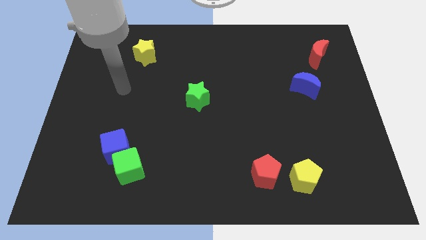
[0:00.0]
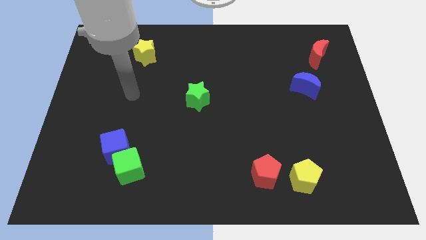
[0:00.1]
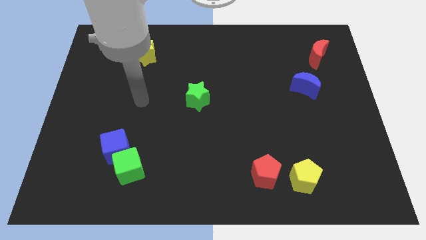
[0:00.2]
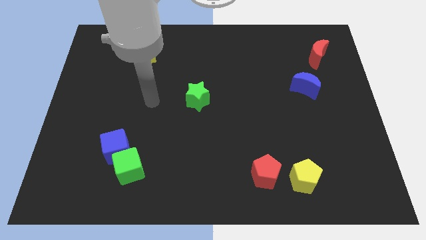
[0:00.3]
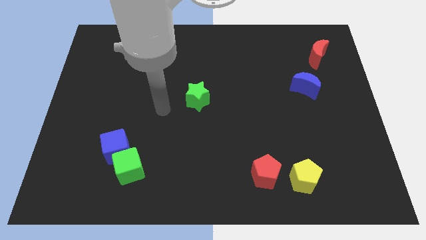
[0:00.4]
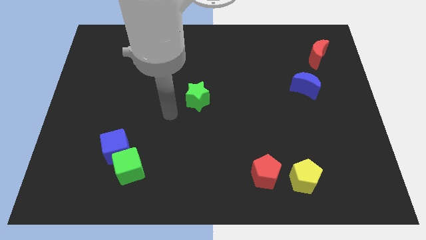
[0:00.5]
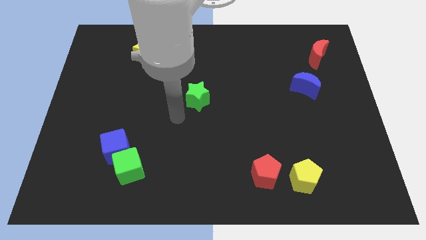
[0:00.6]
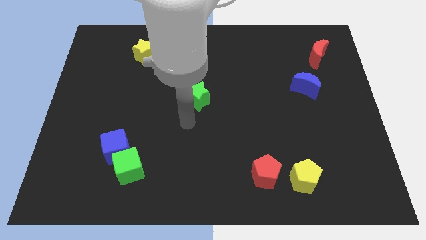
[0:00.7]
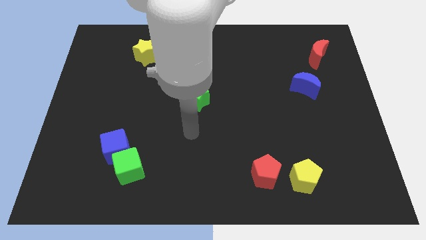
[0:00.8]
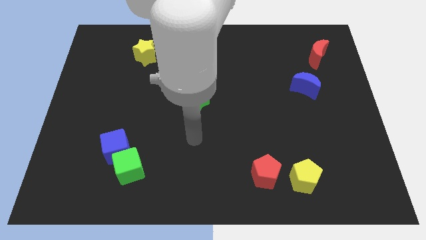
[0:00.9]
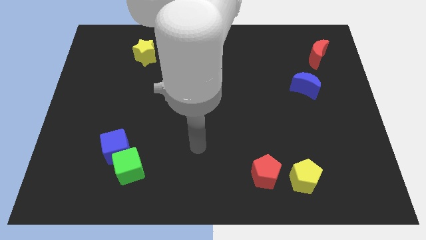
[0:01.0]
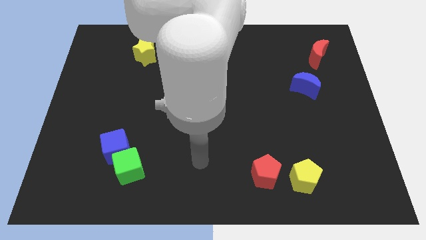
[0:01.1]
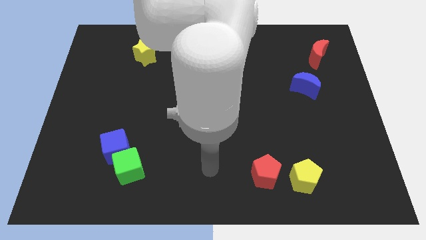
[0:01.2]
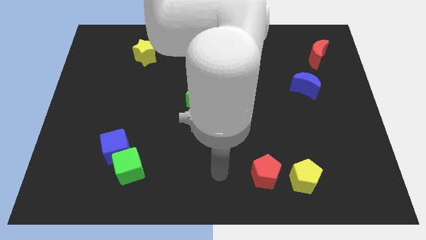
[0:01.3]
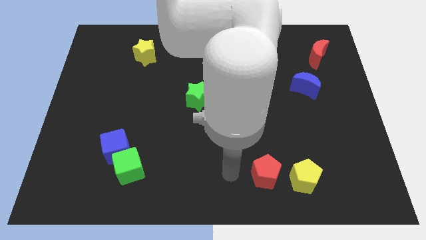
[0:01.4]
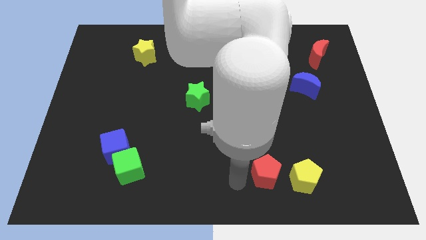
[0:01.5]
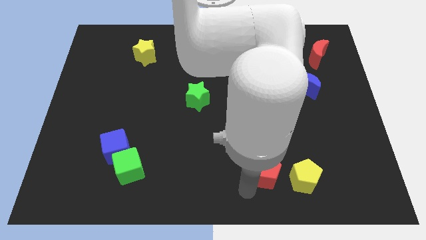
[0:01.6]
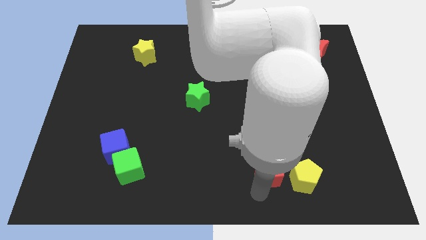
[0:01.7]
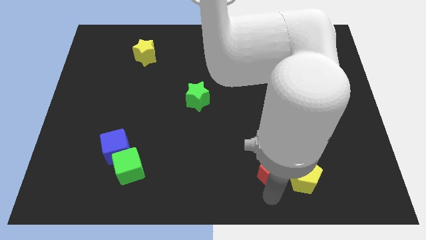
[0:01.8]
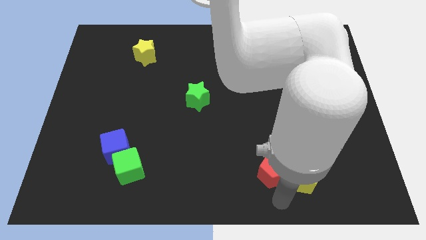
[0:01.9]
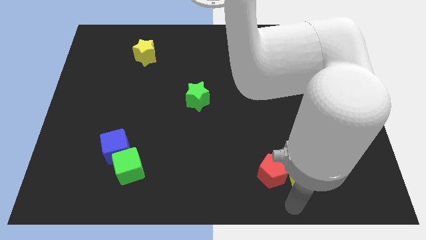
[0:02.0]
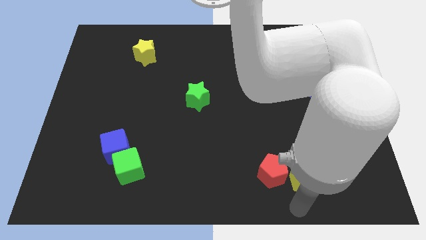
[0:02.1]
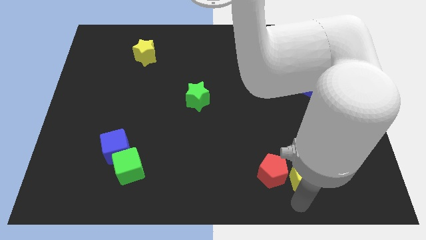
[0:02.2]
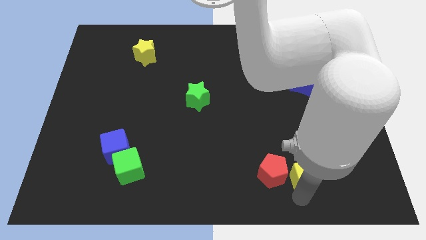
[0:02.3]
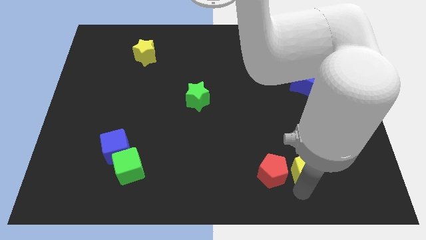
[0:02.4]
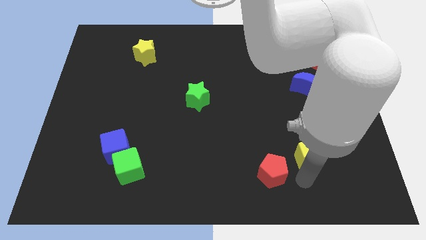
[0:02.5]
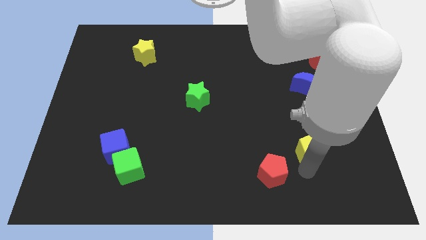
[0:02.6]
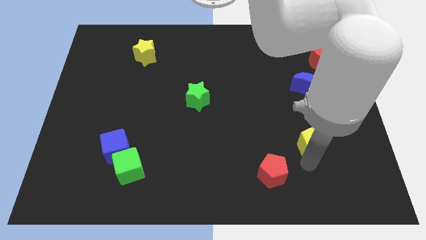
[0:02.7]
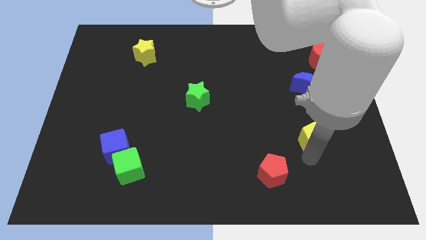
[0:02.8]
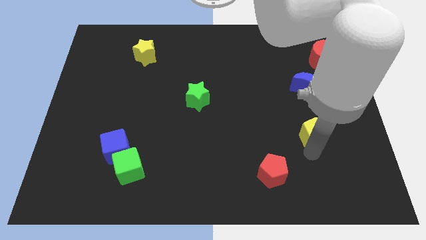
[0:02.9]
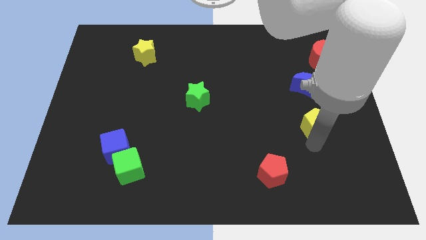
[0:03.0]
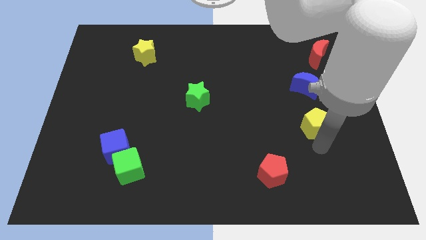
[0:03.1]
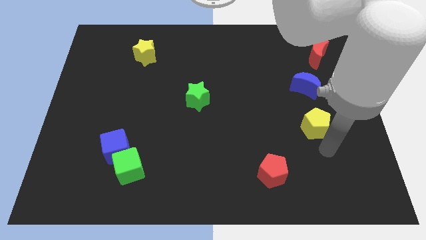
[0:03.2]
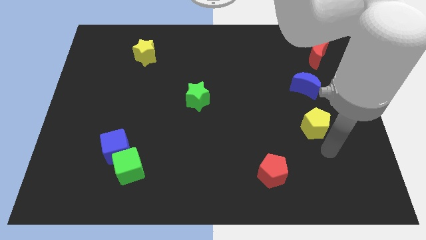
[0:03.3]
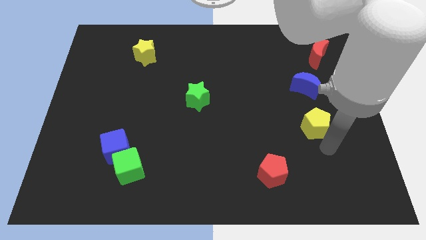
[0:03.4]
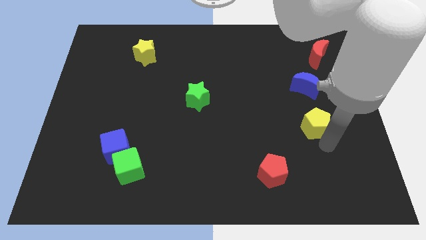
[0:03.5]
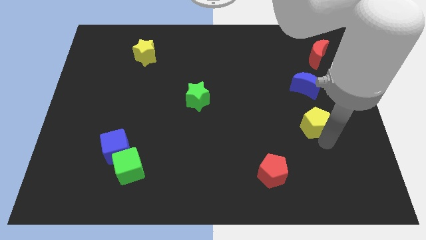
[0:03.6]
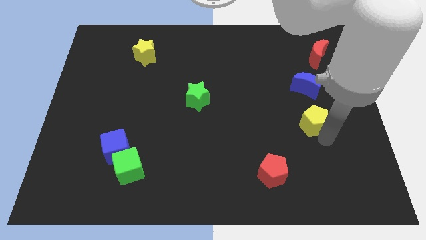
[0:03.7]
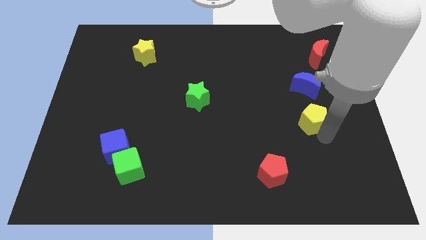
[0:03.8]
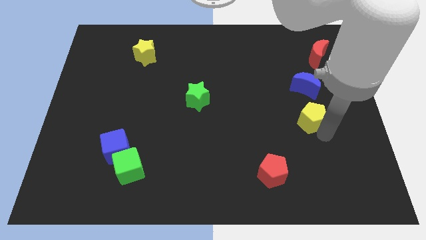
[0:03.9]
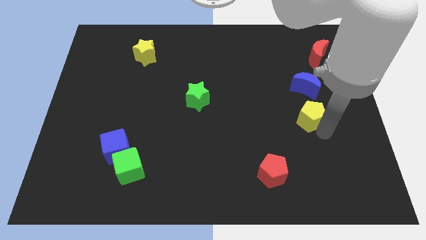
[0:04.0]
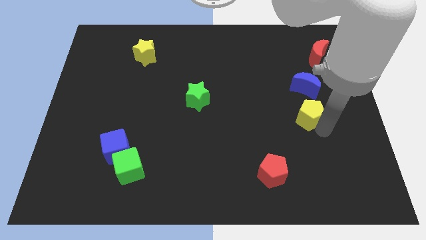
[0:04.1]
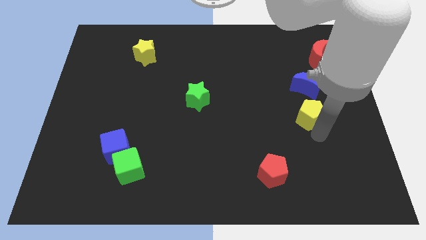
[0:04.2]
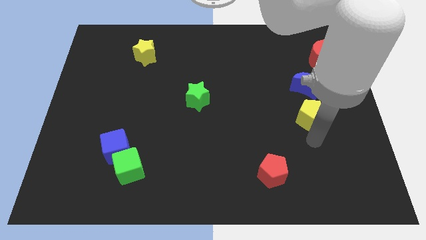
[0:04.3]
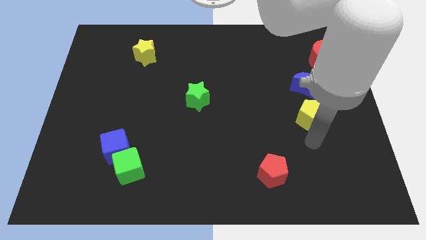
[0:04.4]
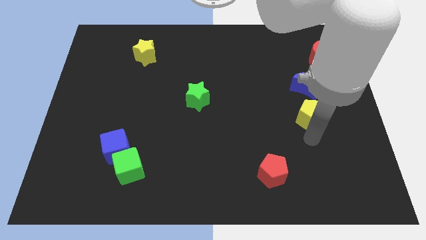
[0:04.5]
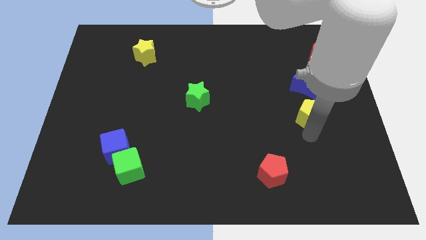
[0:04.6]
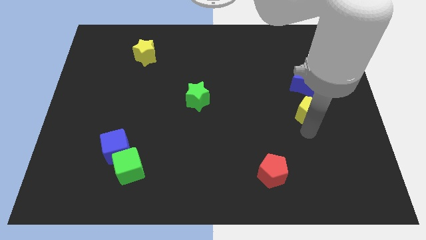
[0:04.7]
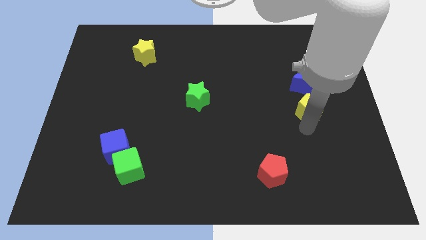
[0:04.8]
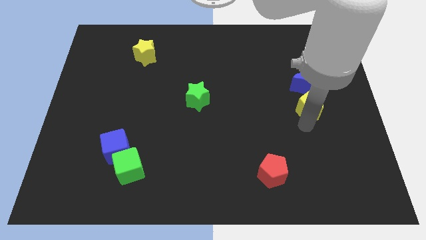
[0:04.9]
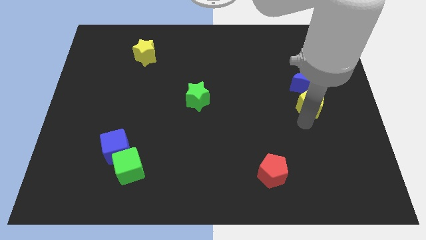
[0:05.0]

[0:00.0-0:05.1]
move the yellow pentagon to the blue moon

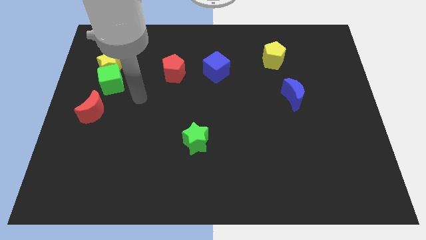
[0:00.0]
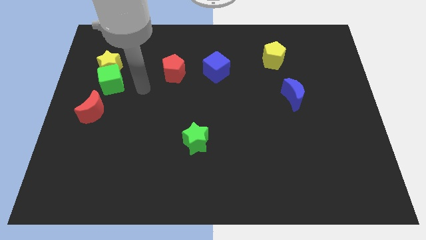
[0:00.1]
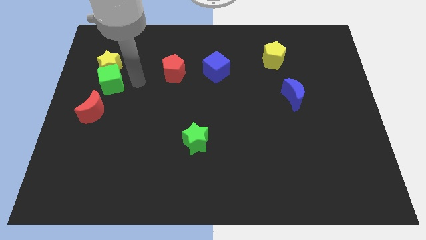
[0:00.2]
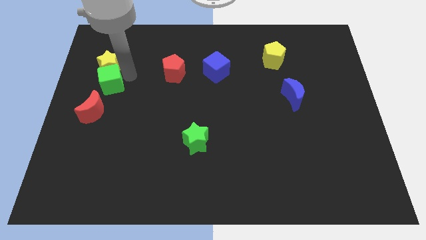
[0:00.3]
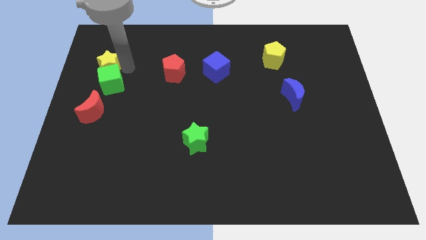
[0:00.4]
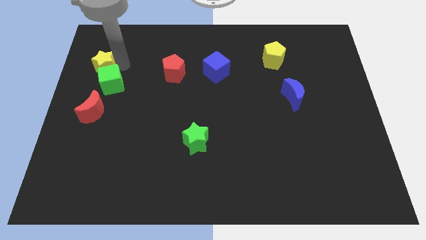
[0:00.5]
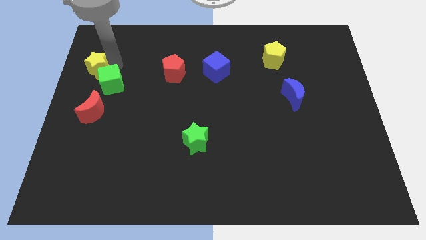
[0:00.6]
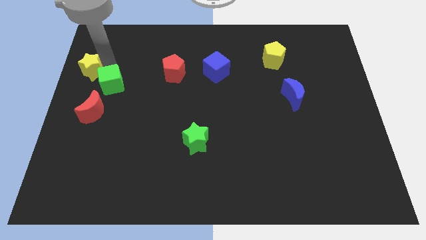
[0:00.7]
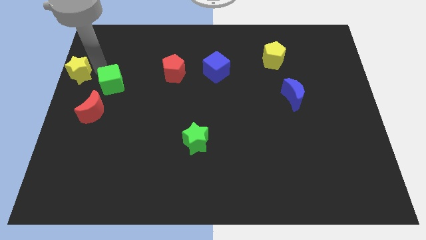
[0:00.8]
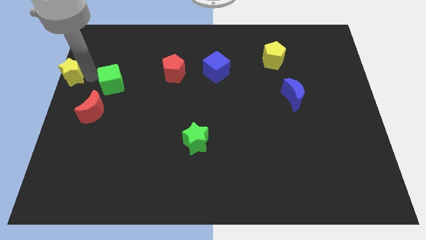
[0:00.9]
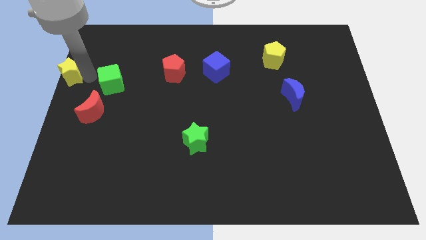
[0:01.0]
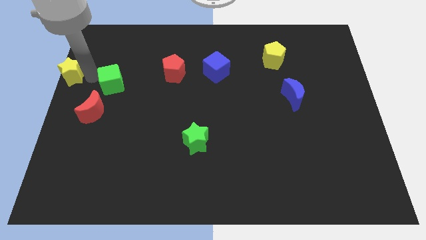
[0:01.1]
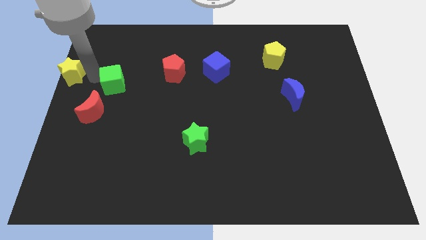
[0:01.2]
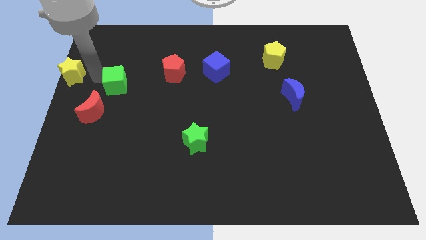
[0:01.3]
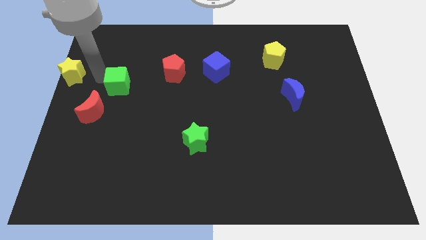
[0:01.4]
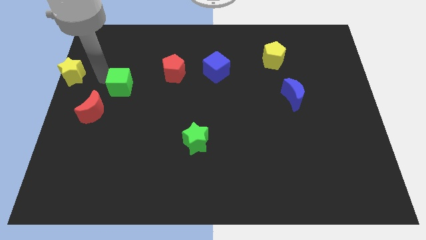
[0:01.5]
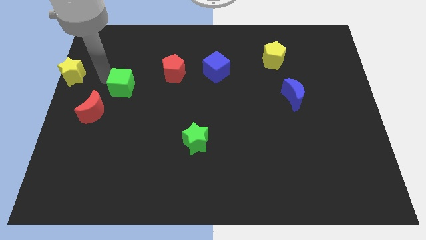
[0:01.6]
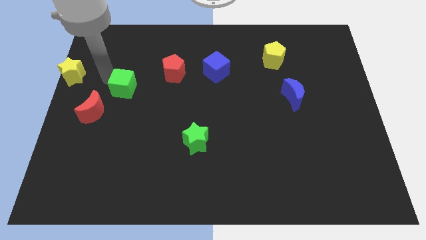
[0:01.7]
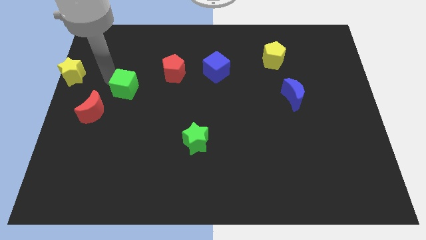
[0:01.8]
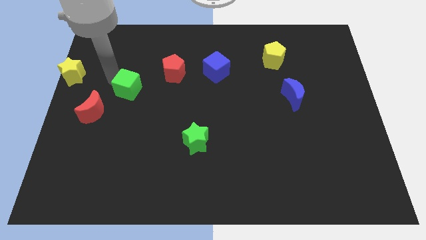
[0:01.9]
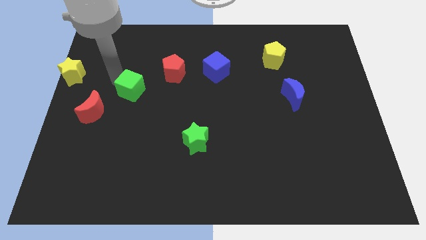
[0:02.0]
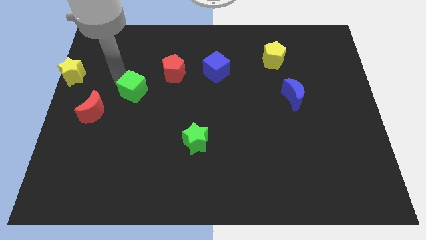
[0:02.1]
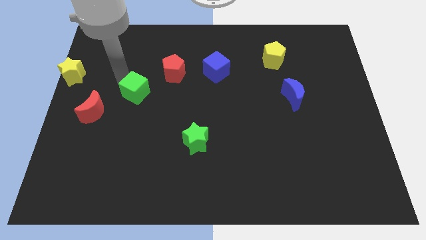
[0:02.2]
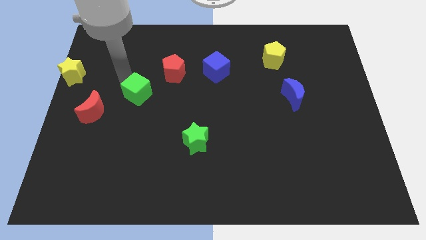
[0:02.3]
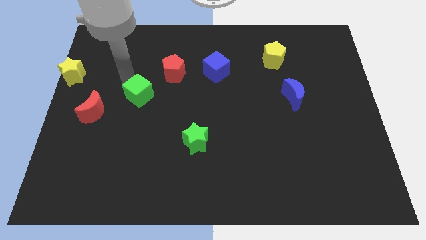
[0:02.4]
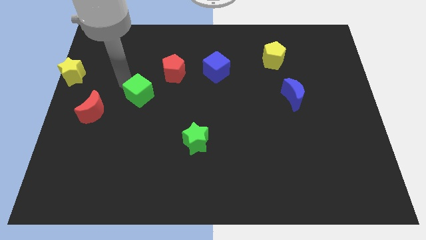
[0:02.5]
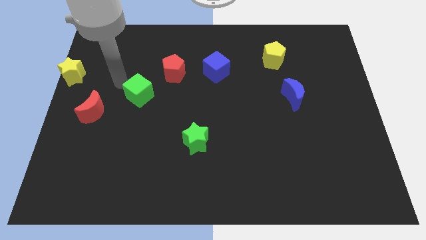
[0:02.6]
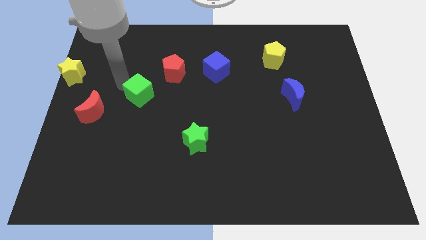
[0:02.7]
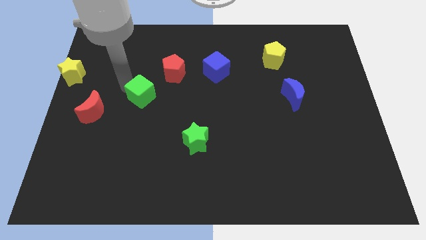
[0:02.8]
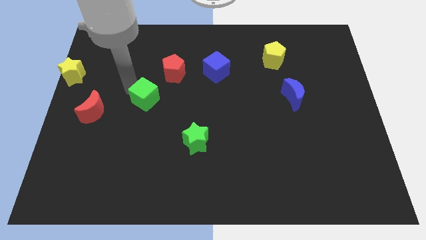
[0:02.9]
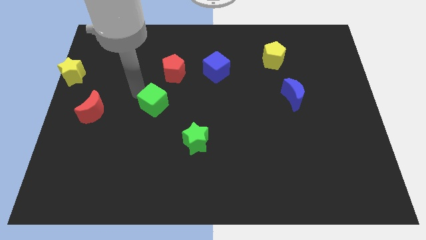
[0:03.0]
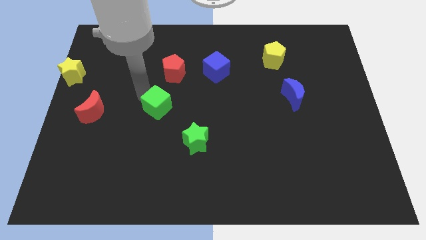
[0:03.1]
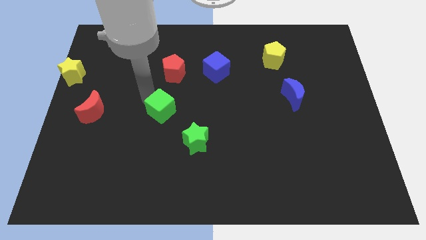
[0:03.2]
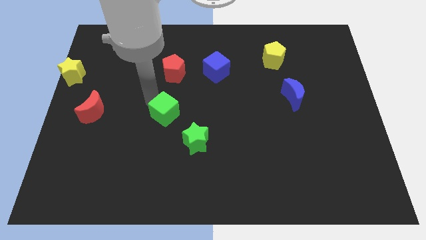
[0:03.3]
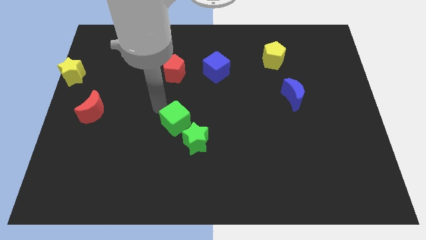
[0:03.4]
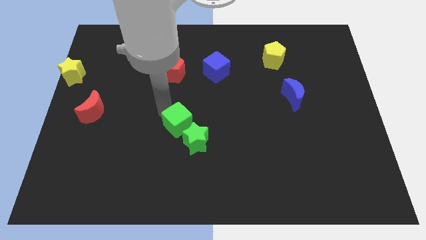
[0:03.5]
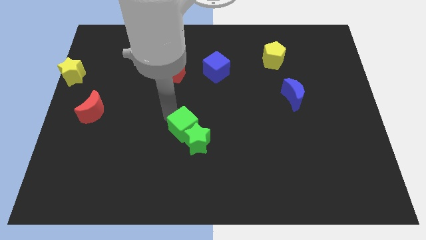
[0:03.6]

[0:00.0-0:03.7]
put the green cube to the green star
